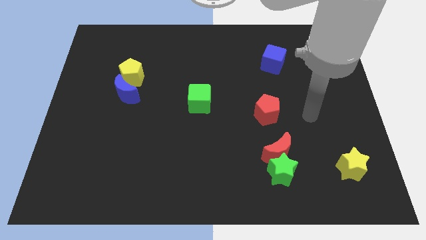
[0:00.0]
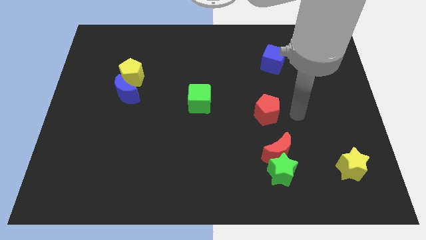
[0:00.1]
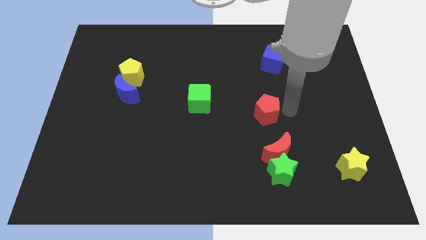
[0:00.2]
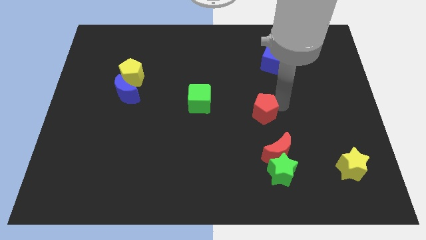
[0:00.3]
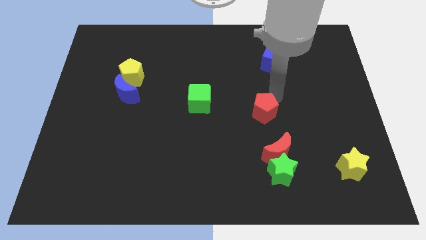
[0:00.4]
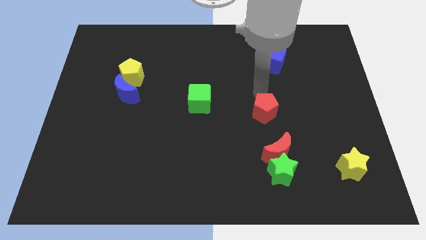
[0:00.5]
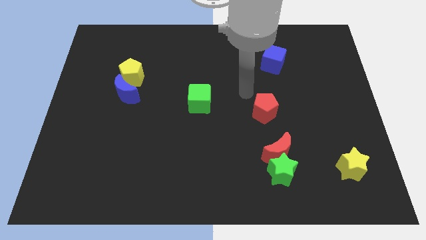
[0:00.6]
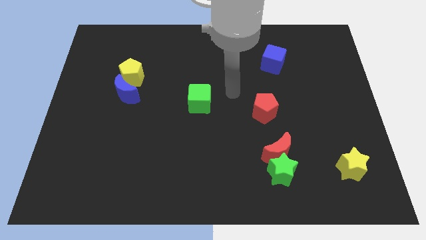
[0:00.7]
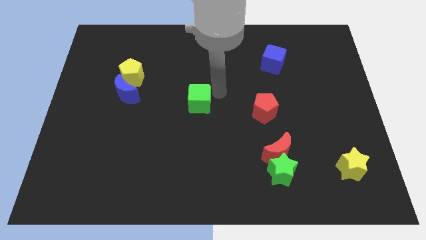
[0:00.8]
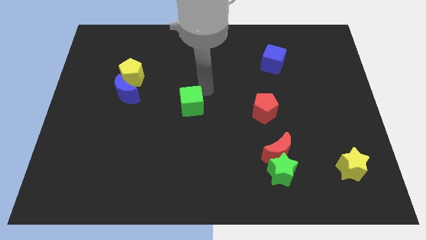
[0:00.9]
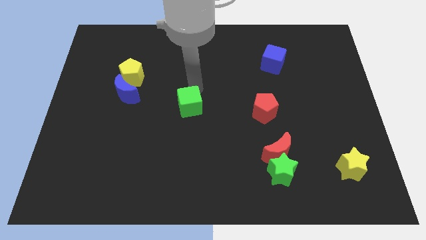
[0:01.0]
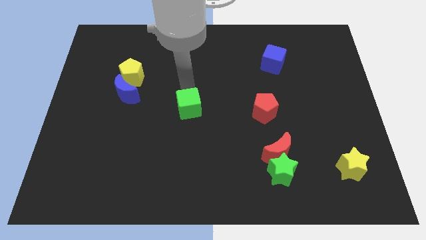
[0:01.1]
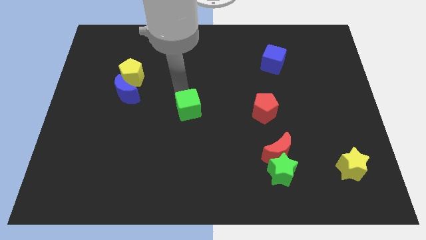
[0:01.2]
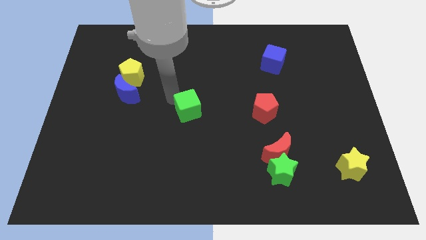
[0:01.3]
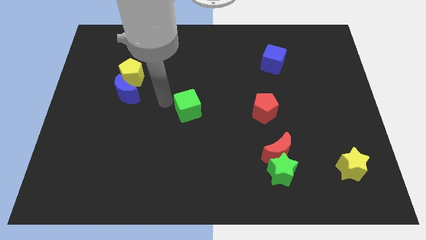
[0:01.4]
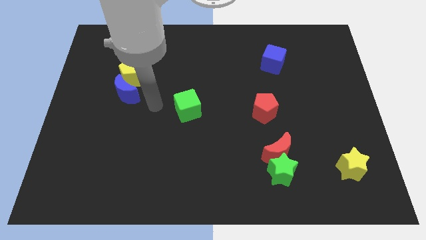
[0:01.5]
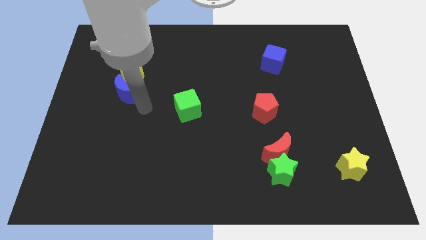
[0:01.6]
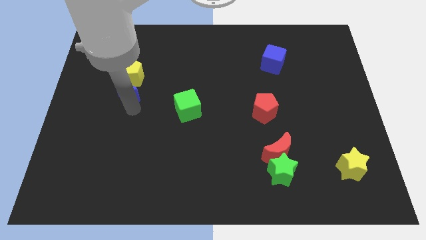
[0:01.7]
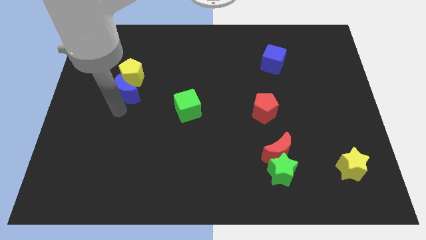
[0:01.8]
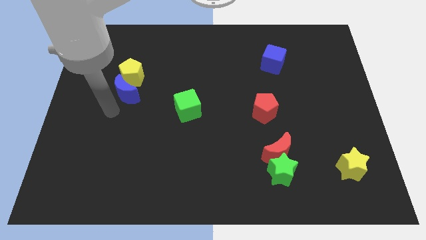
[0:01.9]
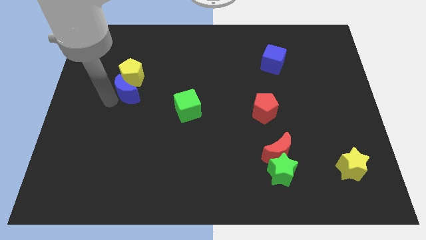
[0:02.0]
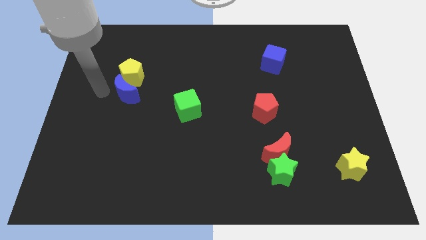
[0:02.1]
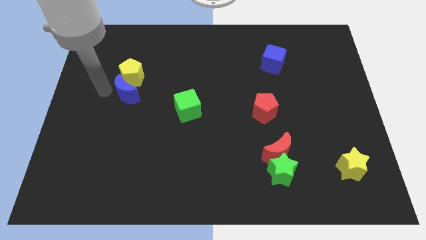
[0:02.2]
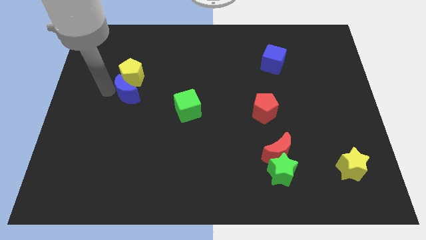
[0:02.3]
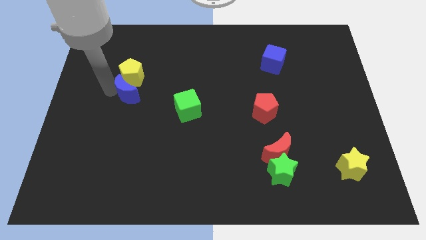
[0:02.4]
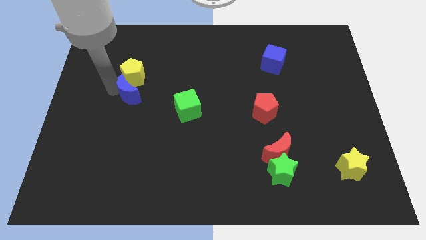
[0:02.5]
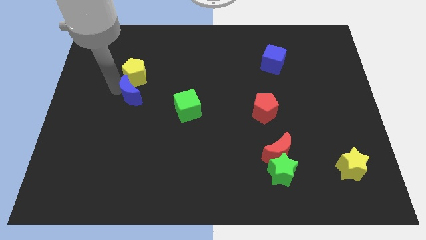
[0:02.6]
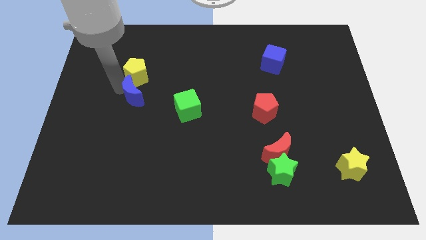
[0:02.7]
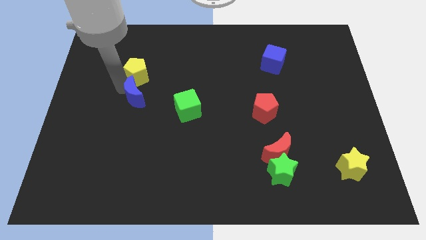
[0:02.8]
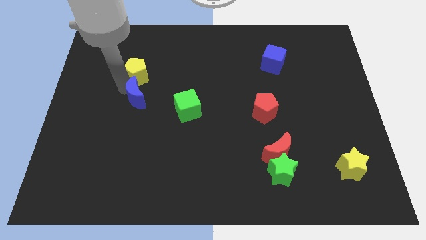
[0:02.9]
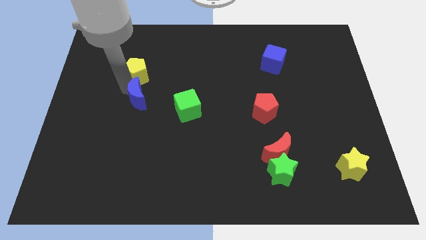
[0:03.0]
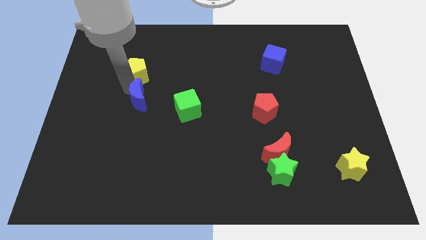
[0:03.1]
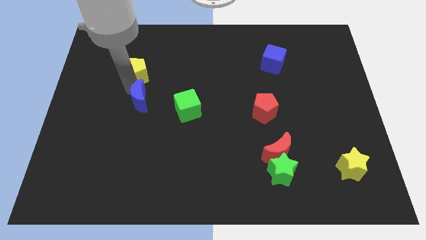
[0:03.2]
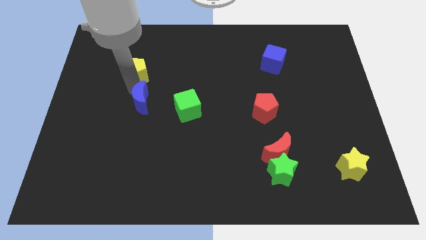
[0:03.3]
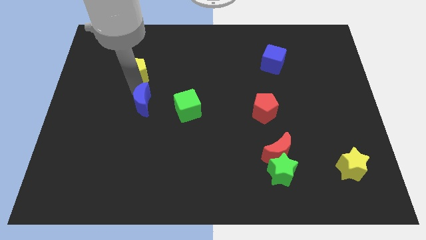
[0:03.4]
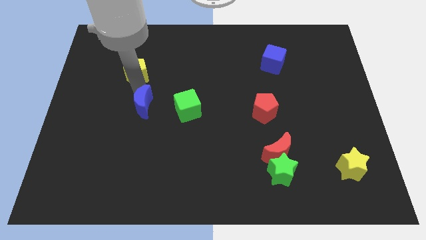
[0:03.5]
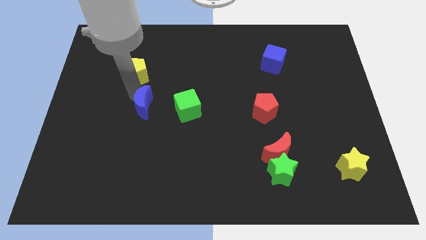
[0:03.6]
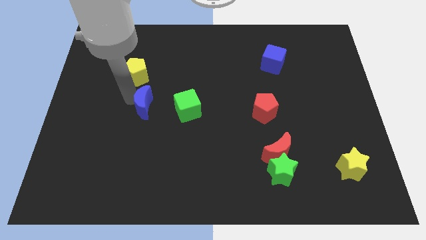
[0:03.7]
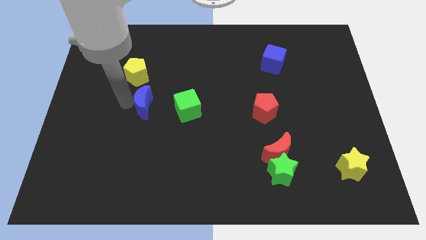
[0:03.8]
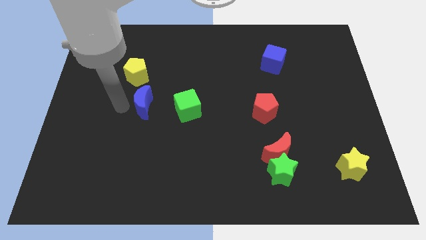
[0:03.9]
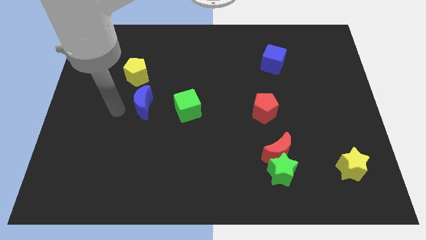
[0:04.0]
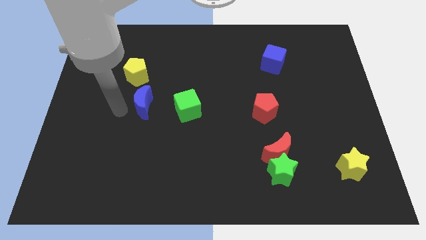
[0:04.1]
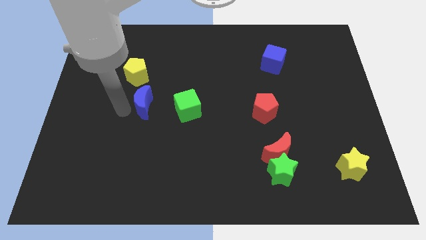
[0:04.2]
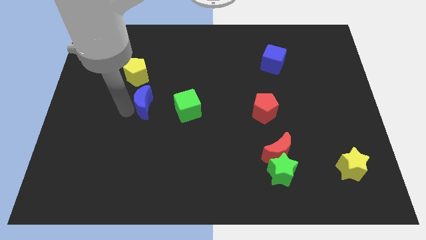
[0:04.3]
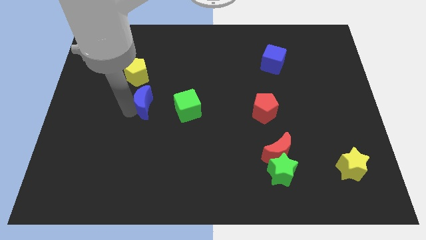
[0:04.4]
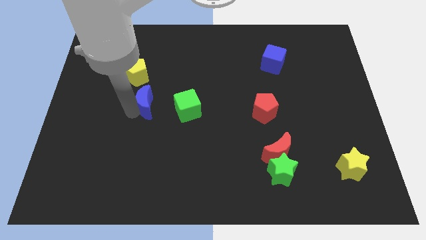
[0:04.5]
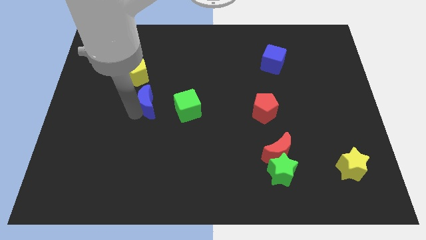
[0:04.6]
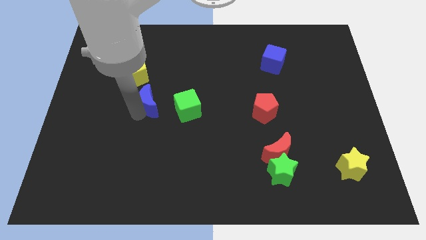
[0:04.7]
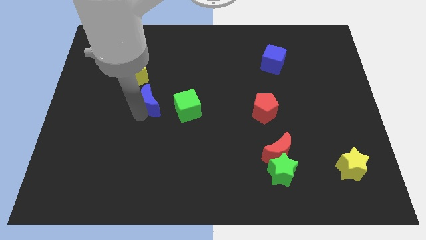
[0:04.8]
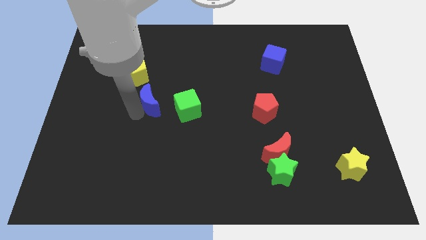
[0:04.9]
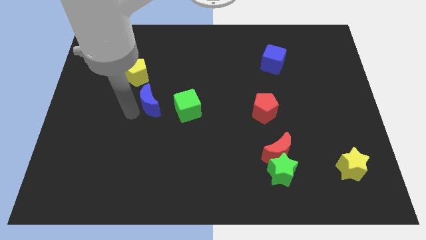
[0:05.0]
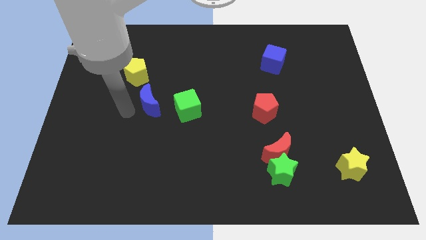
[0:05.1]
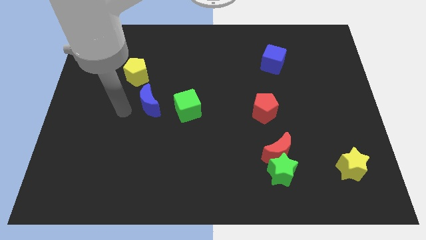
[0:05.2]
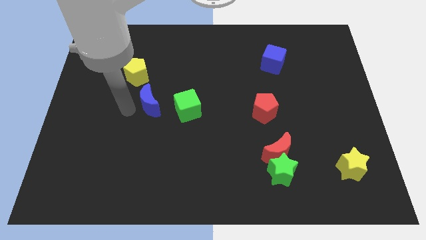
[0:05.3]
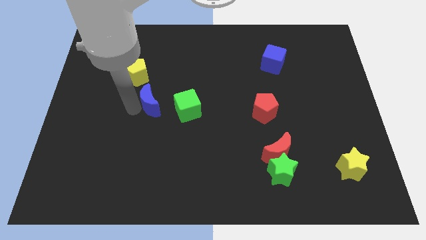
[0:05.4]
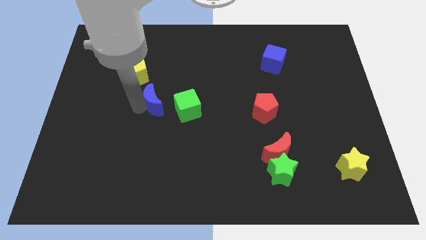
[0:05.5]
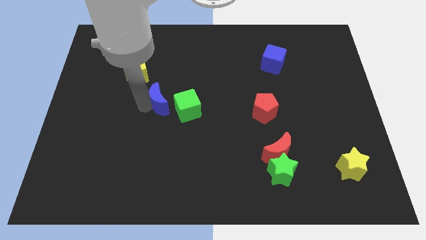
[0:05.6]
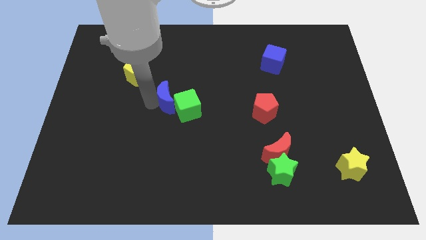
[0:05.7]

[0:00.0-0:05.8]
slide the blue moon to the green cube
